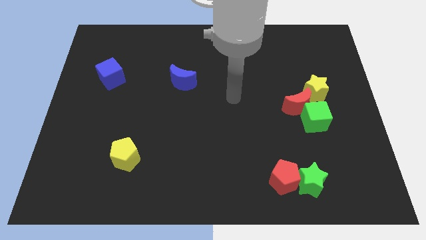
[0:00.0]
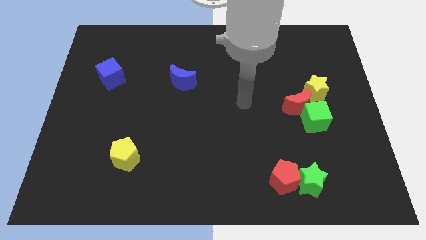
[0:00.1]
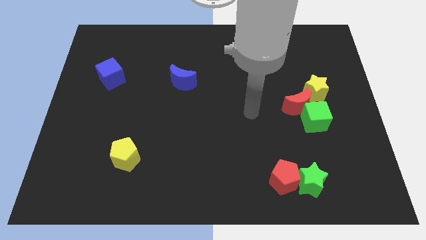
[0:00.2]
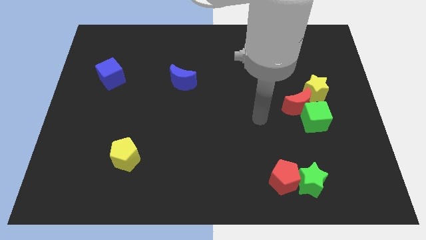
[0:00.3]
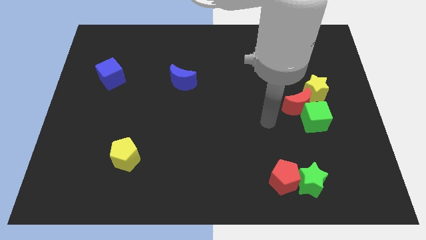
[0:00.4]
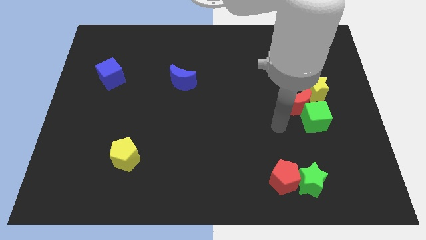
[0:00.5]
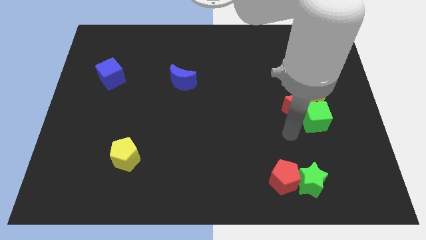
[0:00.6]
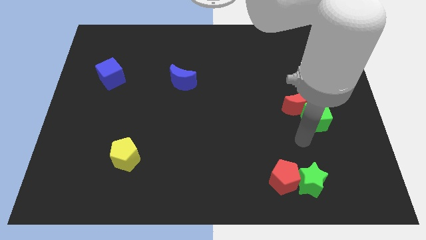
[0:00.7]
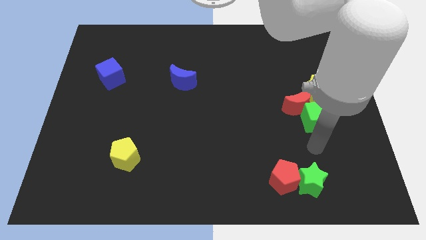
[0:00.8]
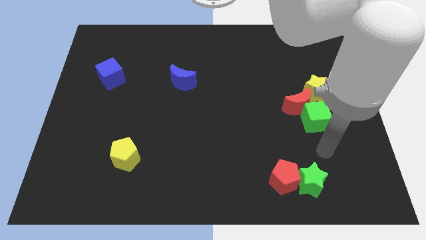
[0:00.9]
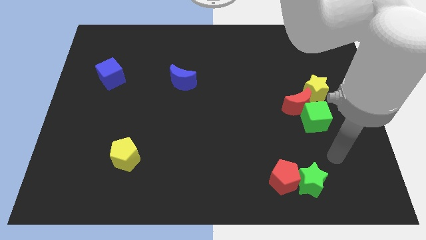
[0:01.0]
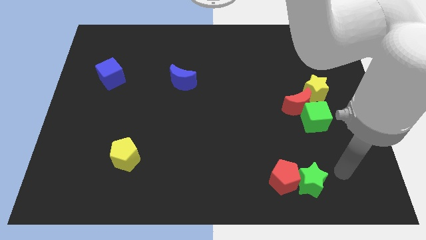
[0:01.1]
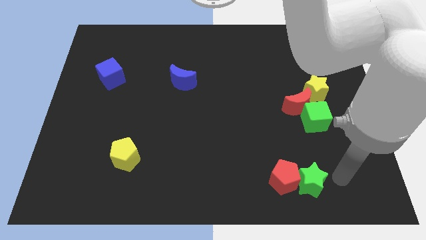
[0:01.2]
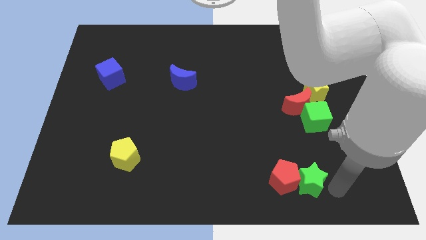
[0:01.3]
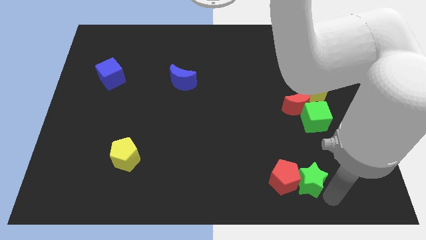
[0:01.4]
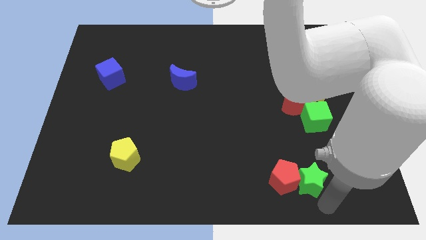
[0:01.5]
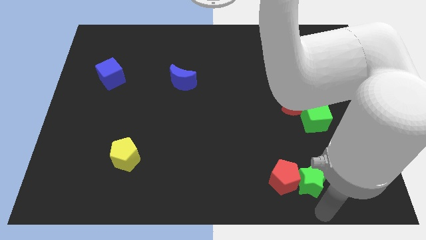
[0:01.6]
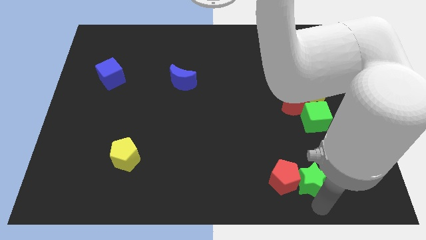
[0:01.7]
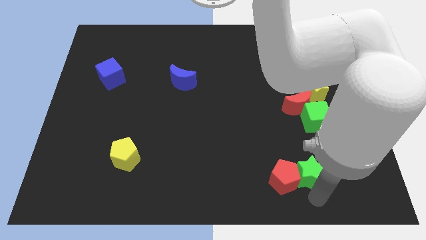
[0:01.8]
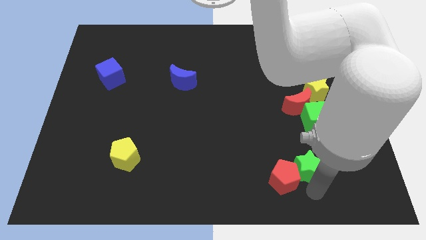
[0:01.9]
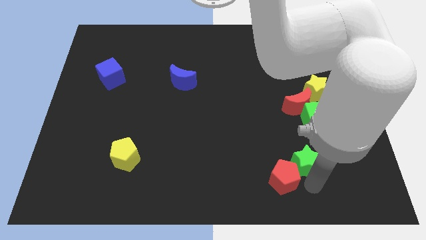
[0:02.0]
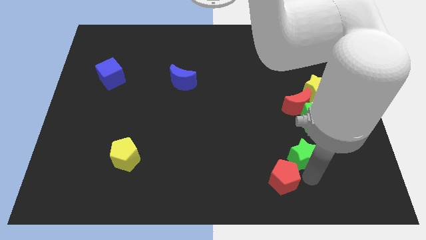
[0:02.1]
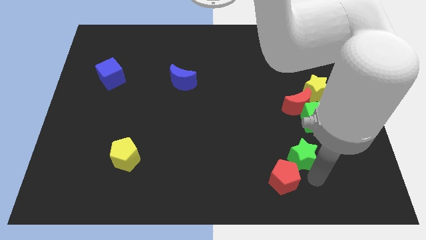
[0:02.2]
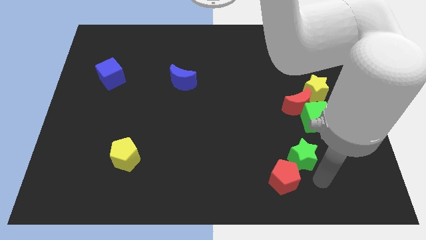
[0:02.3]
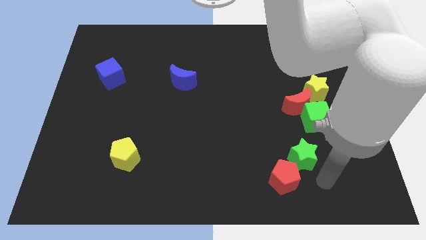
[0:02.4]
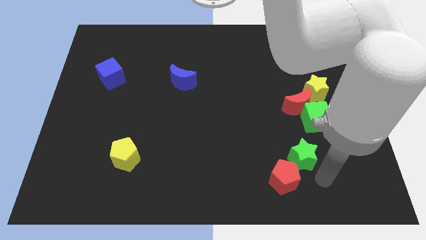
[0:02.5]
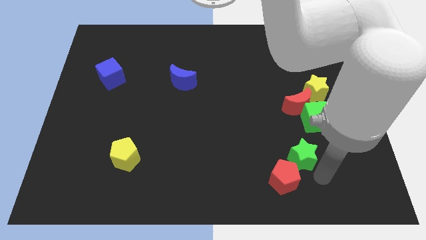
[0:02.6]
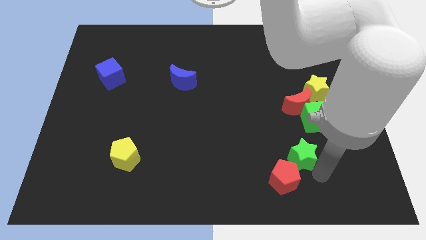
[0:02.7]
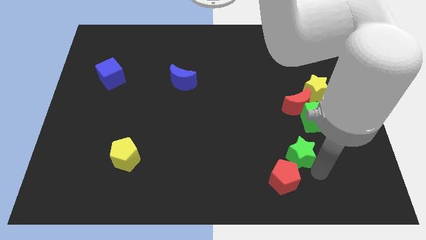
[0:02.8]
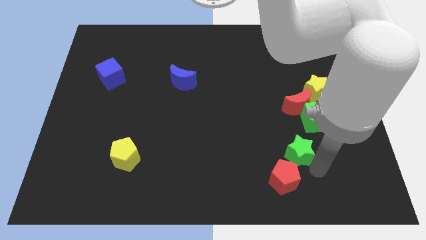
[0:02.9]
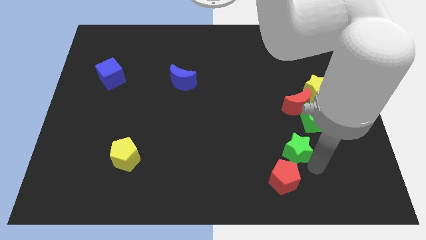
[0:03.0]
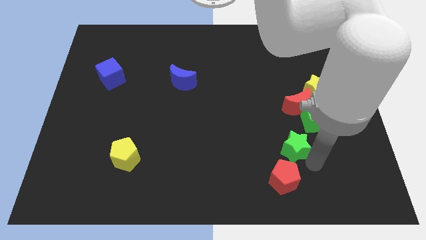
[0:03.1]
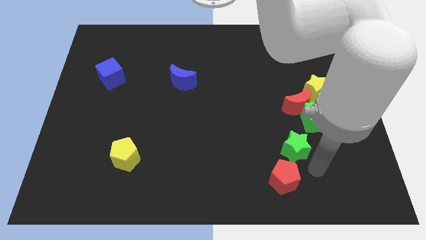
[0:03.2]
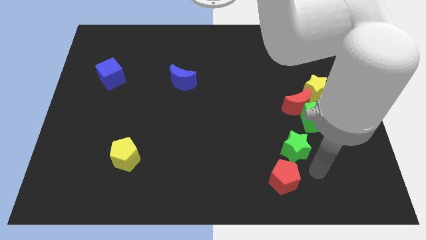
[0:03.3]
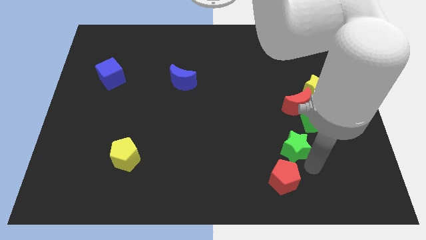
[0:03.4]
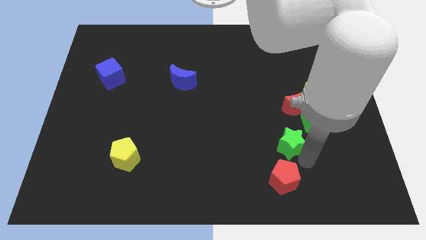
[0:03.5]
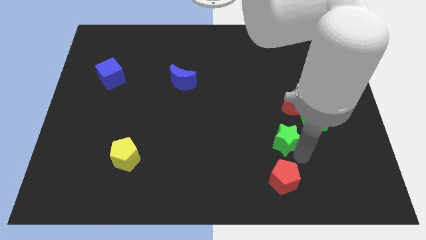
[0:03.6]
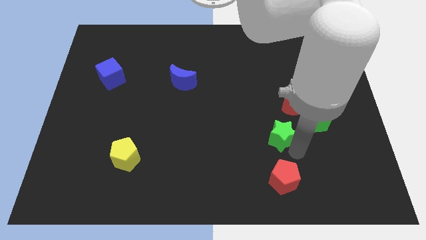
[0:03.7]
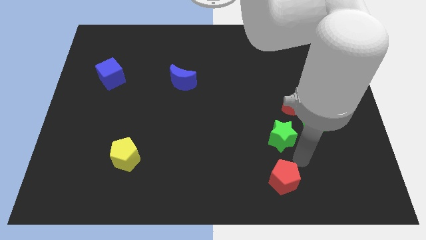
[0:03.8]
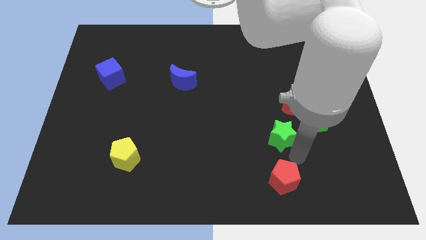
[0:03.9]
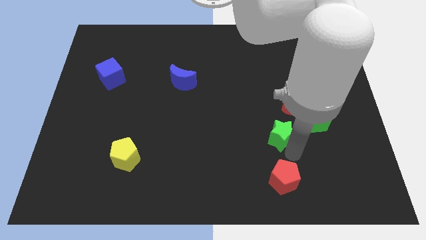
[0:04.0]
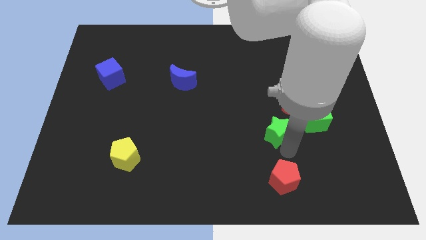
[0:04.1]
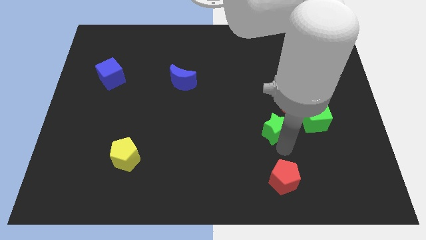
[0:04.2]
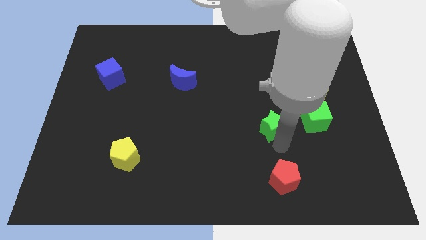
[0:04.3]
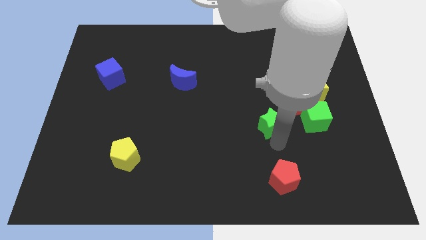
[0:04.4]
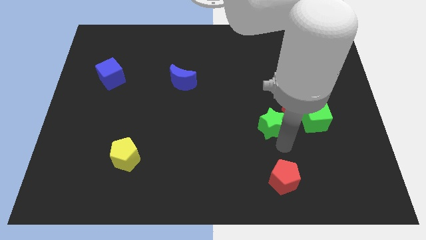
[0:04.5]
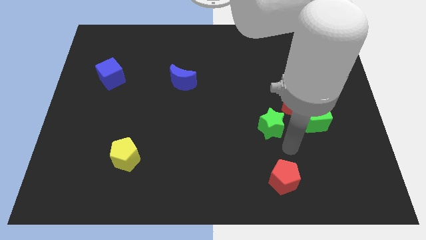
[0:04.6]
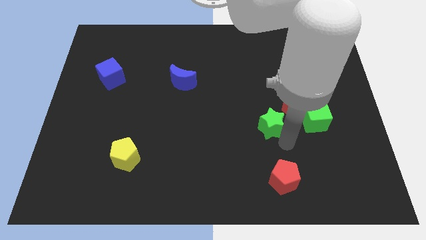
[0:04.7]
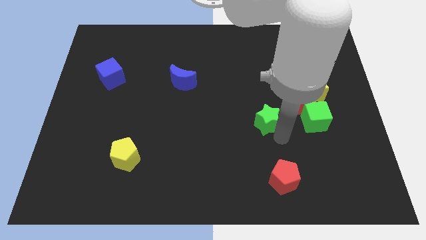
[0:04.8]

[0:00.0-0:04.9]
put the green star just left of the red moon

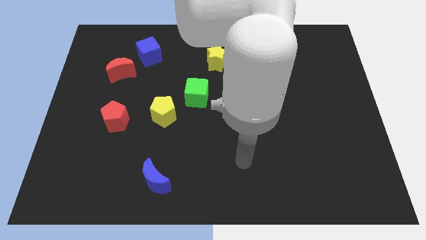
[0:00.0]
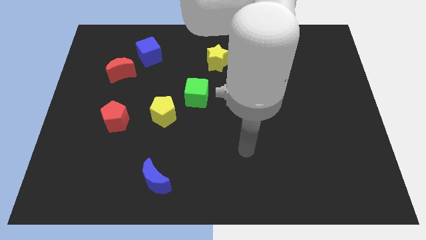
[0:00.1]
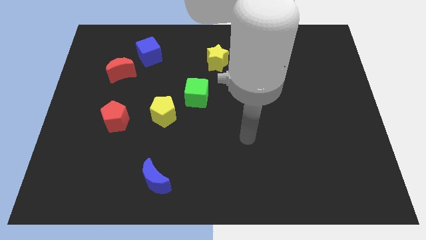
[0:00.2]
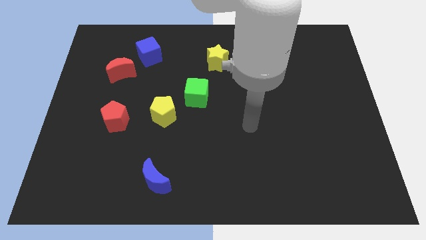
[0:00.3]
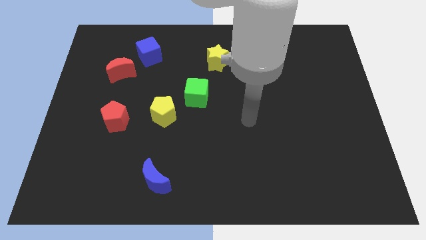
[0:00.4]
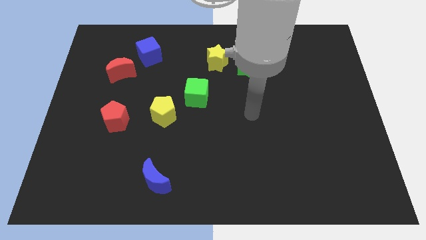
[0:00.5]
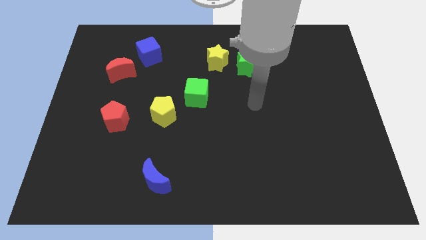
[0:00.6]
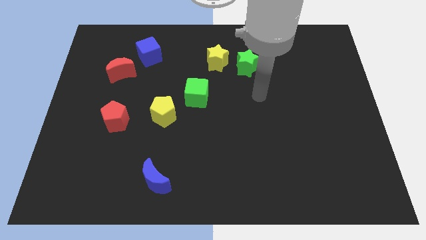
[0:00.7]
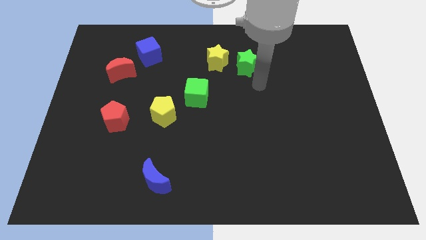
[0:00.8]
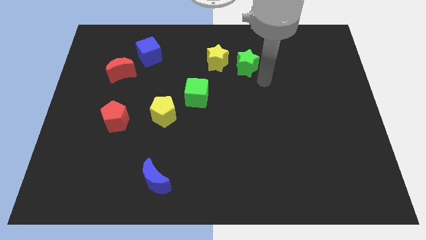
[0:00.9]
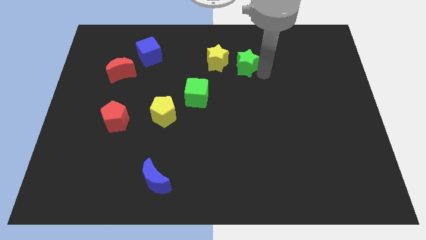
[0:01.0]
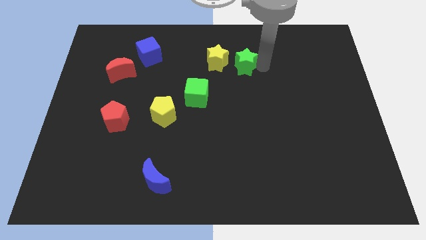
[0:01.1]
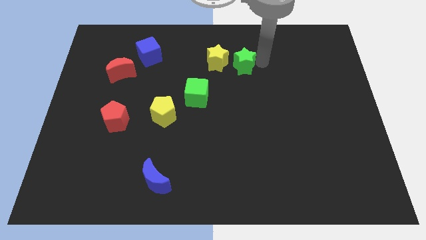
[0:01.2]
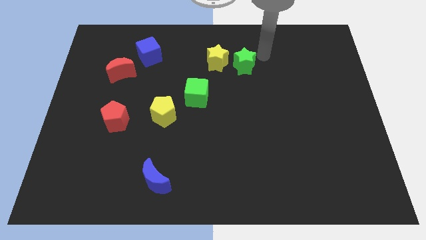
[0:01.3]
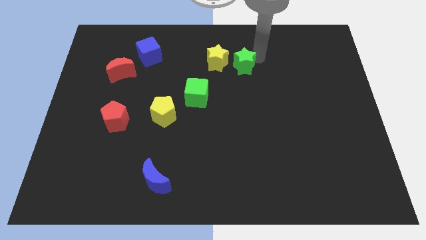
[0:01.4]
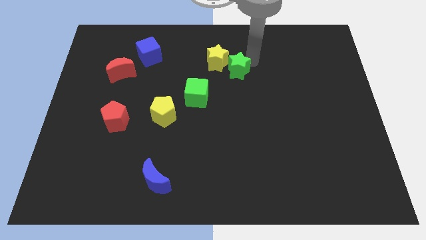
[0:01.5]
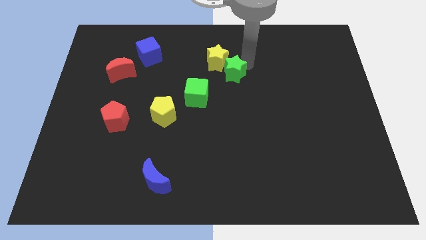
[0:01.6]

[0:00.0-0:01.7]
move the green star to the top right of the green cube

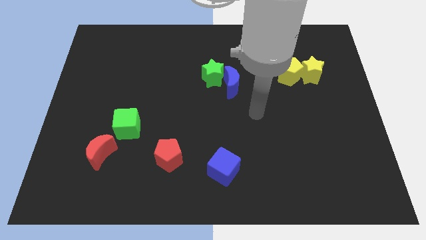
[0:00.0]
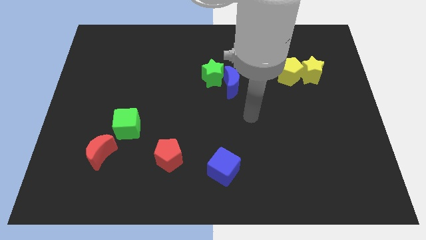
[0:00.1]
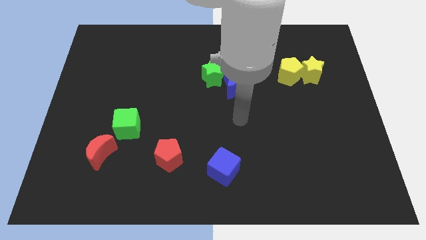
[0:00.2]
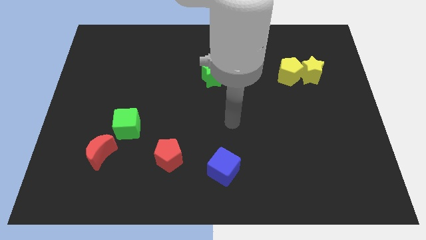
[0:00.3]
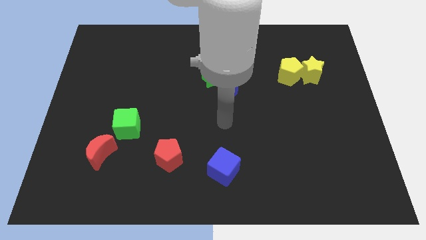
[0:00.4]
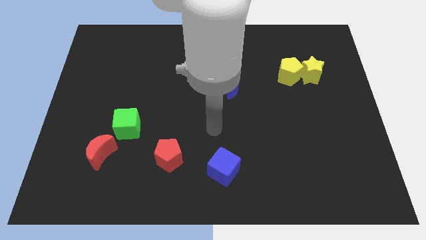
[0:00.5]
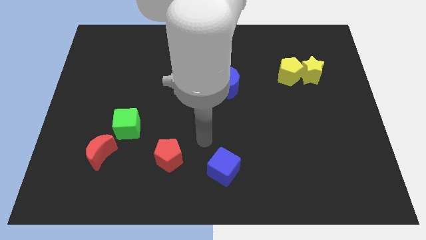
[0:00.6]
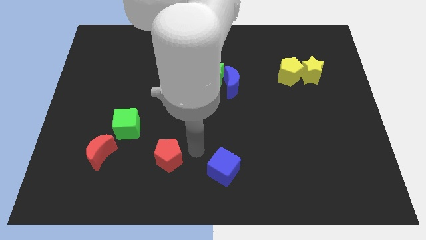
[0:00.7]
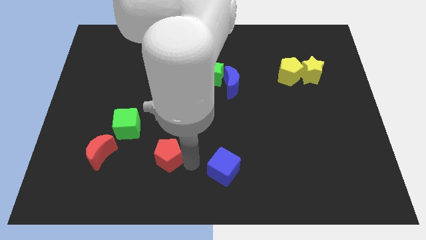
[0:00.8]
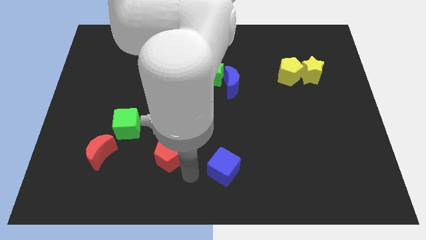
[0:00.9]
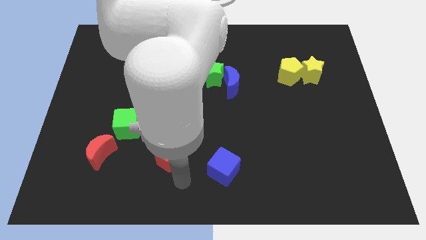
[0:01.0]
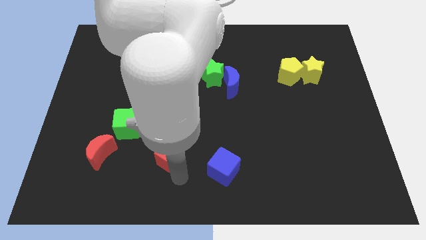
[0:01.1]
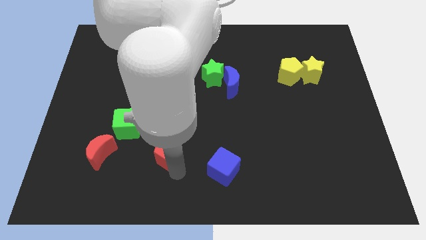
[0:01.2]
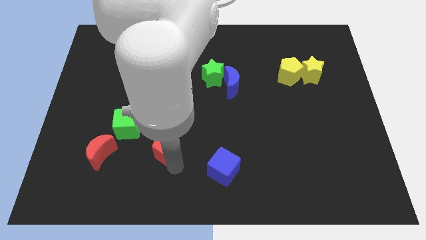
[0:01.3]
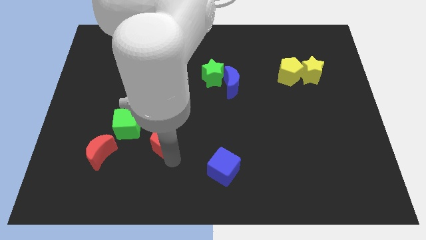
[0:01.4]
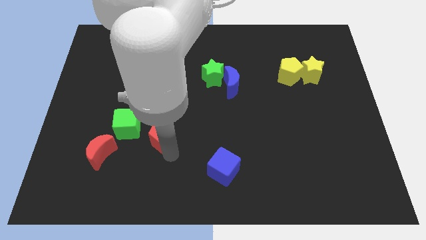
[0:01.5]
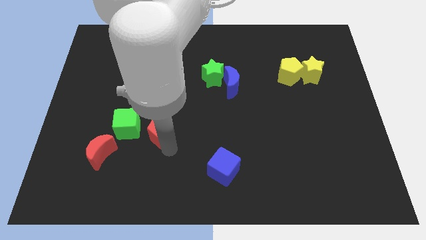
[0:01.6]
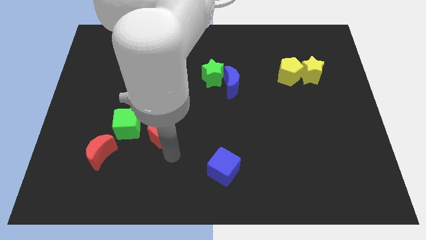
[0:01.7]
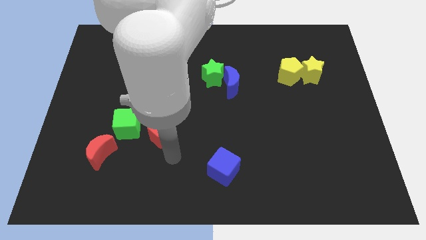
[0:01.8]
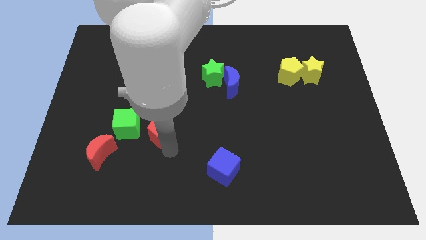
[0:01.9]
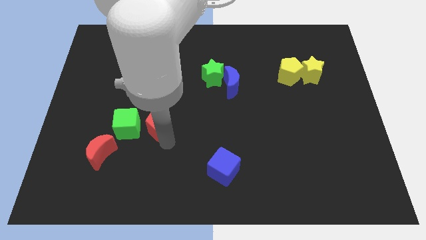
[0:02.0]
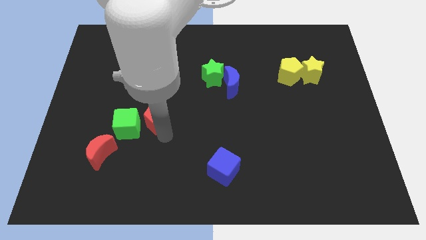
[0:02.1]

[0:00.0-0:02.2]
put the red pentagon to the top right of the green cube
